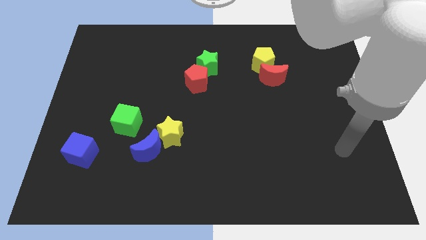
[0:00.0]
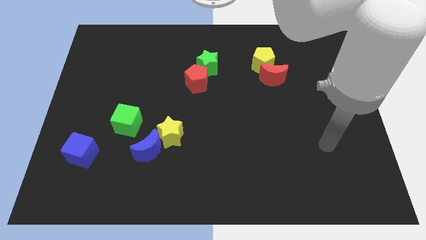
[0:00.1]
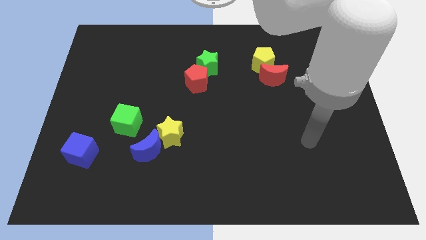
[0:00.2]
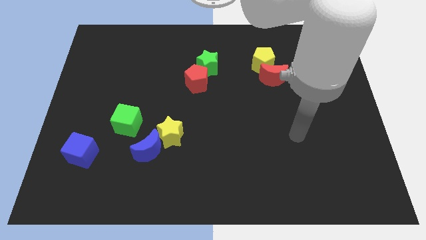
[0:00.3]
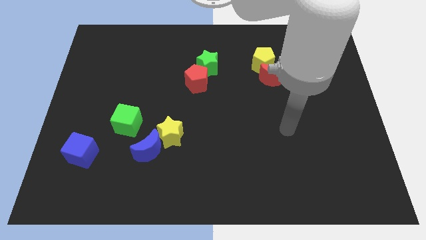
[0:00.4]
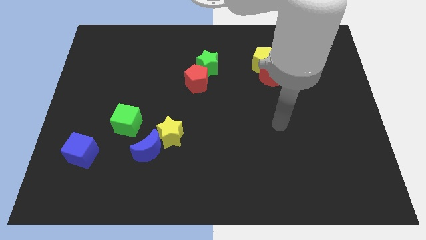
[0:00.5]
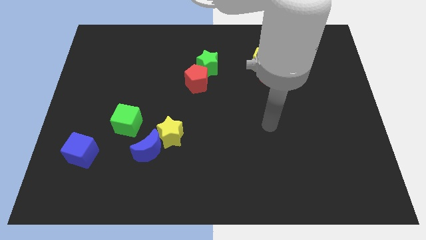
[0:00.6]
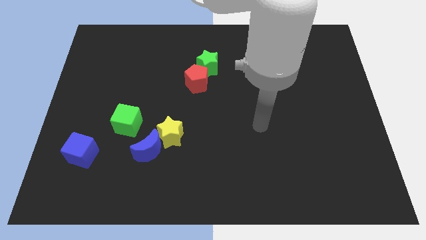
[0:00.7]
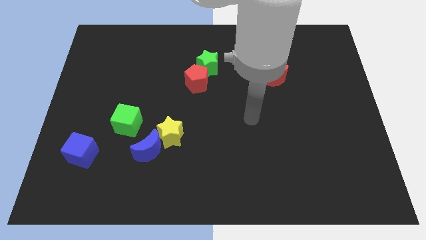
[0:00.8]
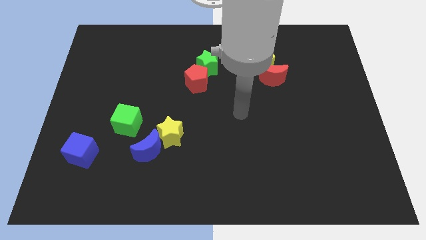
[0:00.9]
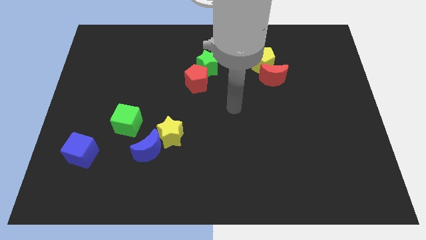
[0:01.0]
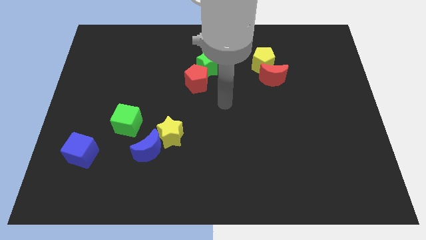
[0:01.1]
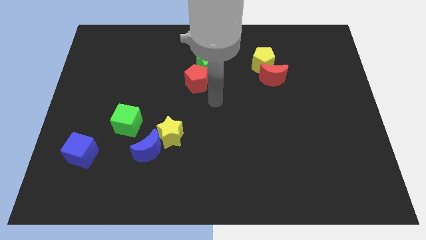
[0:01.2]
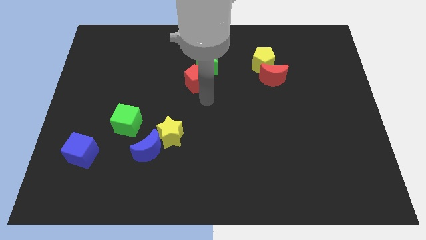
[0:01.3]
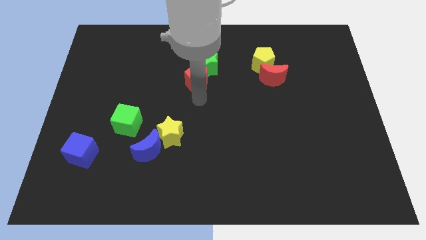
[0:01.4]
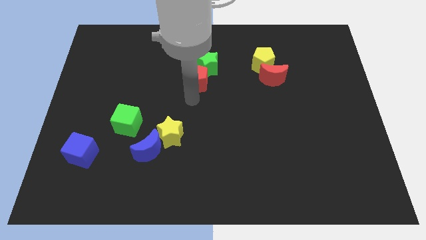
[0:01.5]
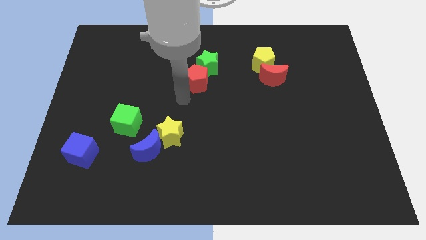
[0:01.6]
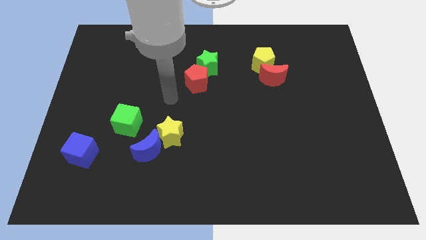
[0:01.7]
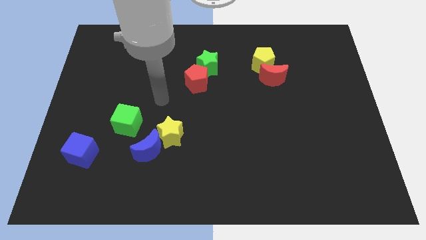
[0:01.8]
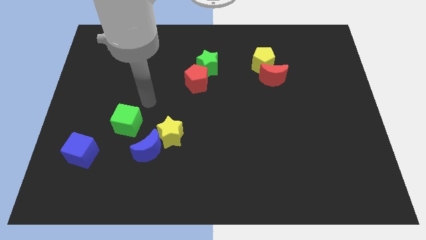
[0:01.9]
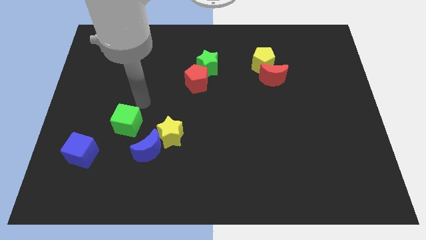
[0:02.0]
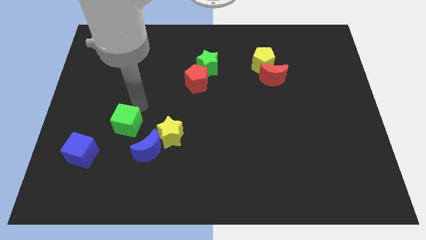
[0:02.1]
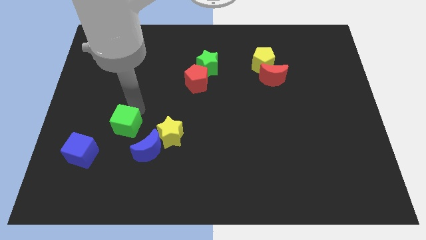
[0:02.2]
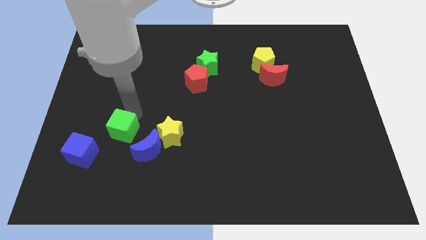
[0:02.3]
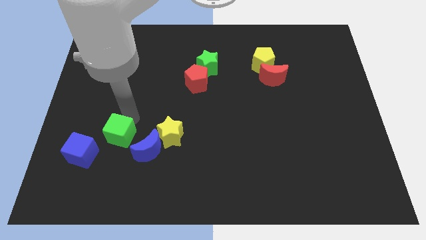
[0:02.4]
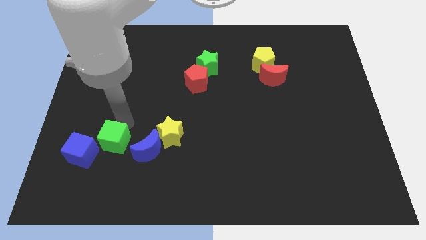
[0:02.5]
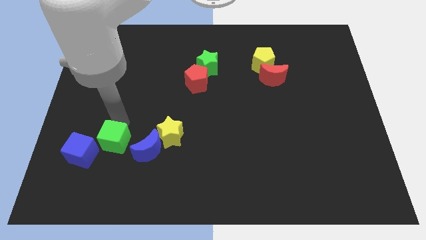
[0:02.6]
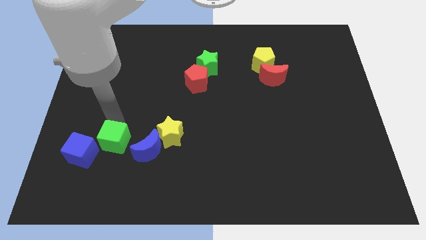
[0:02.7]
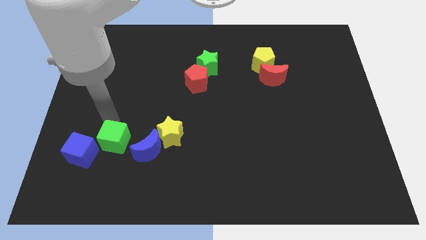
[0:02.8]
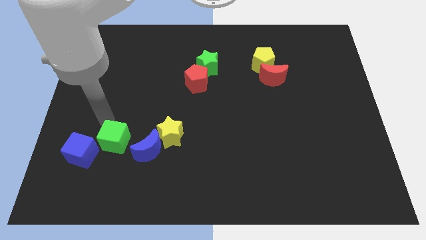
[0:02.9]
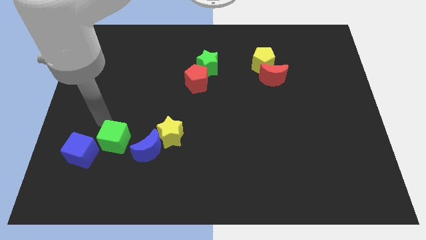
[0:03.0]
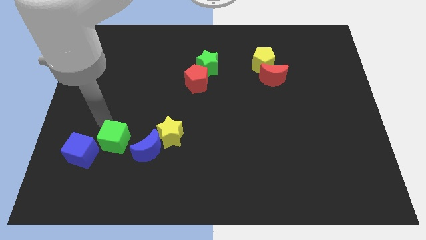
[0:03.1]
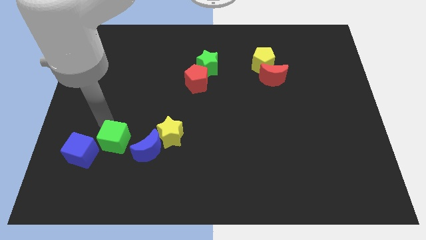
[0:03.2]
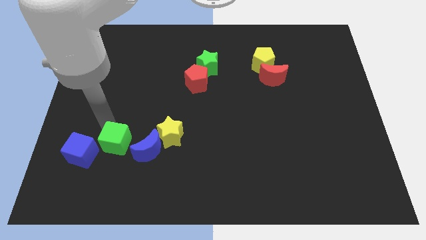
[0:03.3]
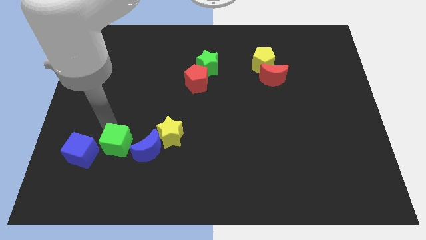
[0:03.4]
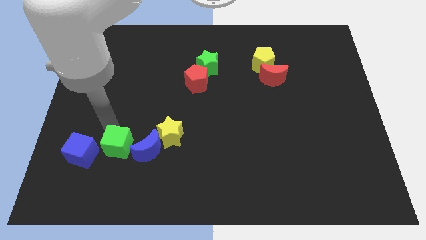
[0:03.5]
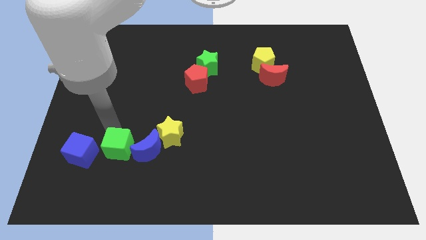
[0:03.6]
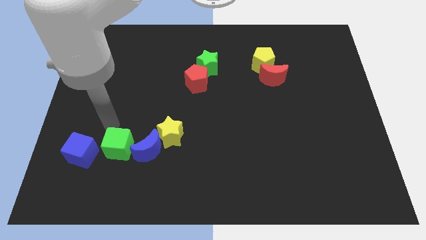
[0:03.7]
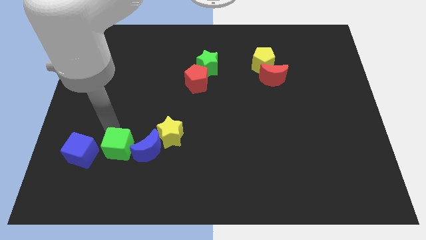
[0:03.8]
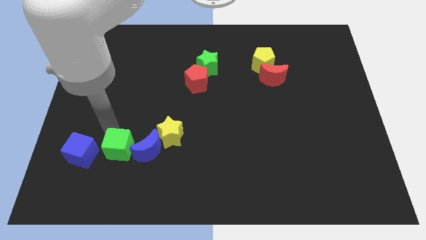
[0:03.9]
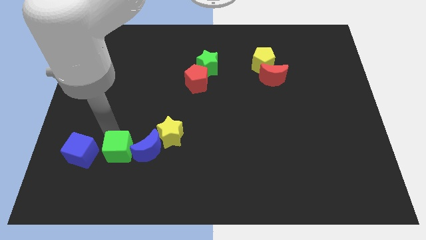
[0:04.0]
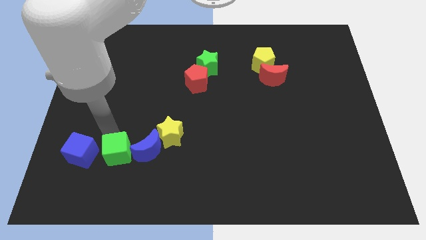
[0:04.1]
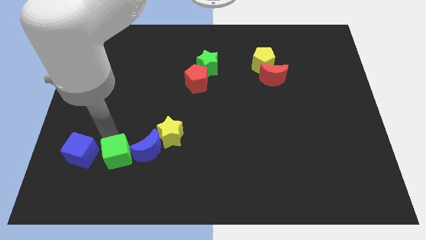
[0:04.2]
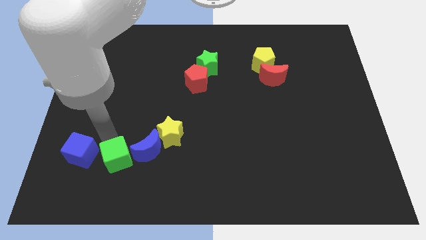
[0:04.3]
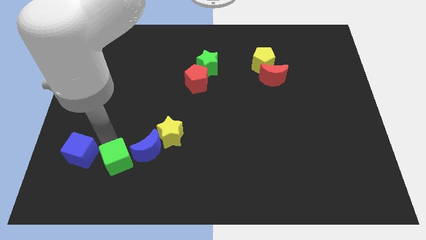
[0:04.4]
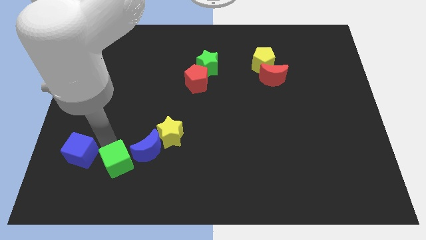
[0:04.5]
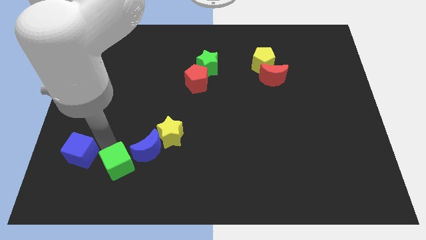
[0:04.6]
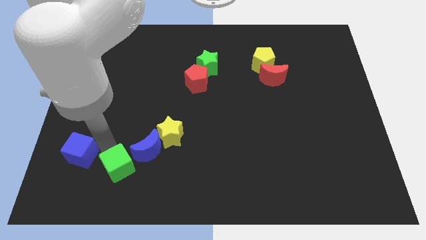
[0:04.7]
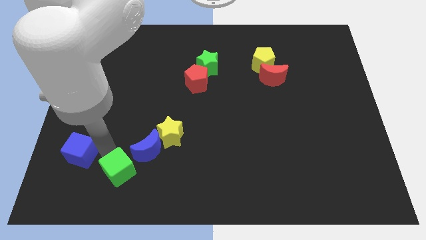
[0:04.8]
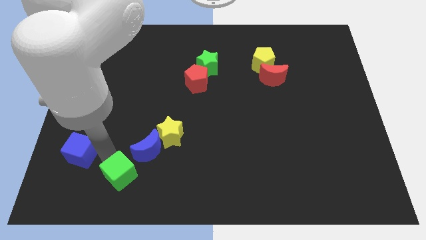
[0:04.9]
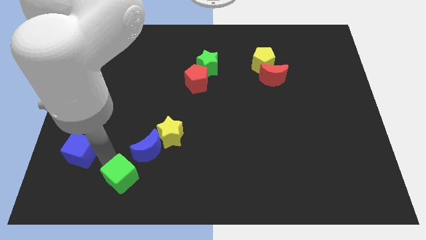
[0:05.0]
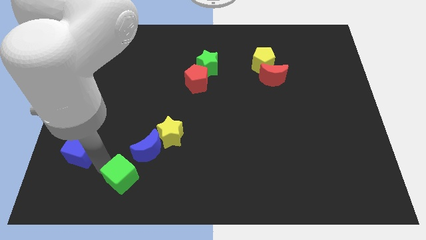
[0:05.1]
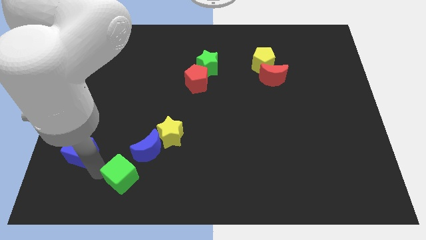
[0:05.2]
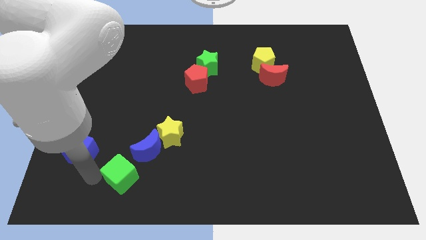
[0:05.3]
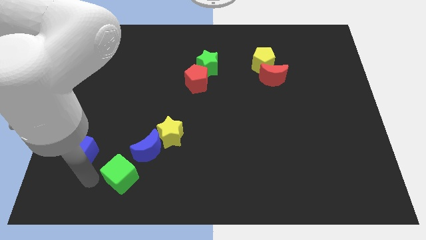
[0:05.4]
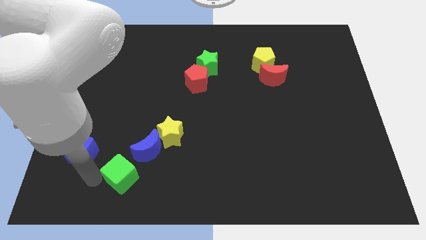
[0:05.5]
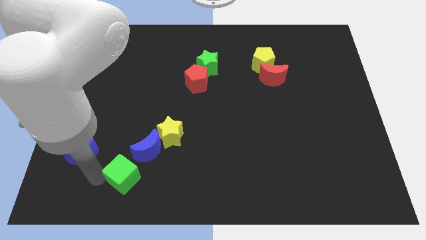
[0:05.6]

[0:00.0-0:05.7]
push the green cube somewhat diagonally downwards and right

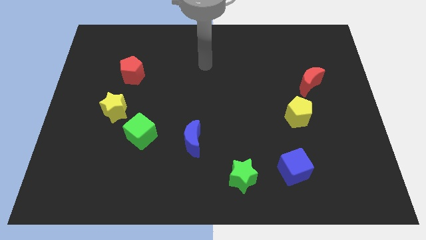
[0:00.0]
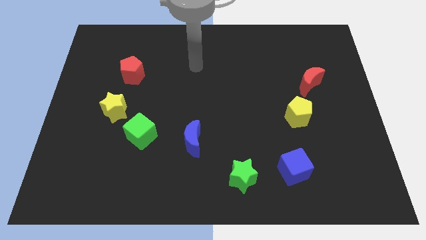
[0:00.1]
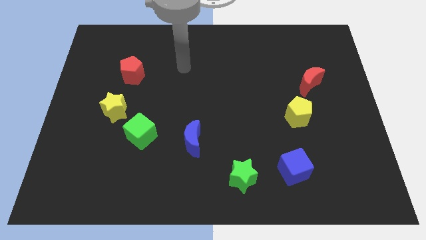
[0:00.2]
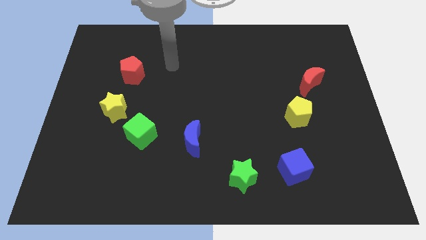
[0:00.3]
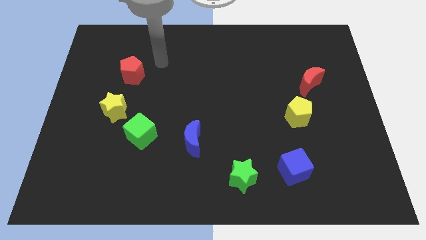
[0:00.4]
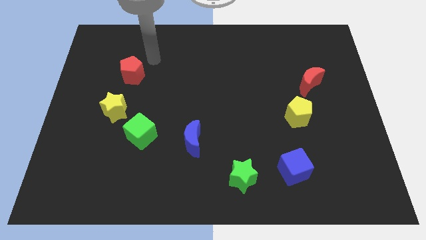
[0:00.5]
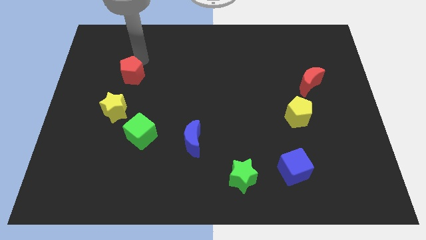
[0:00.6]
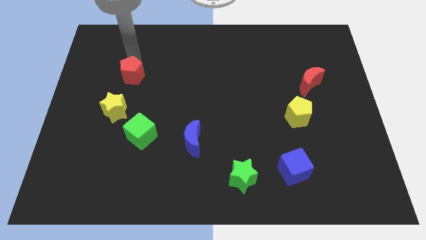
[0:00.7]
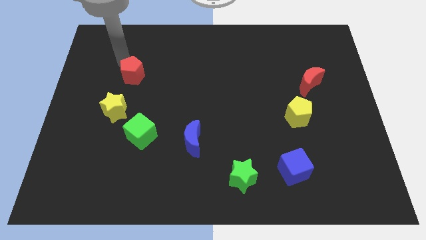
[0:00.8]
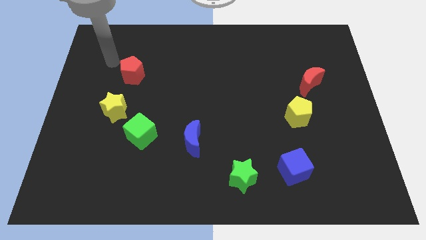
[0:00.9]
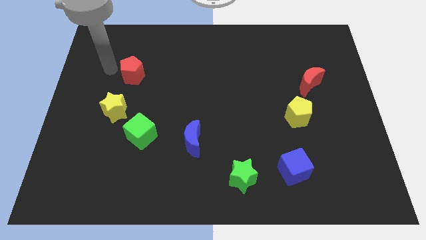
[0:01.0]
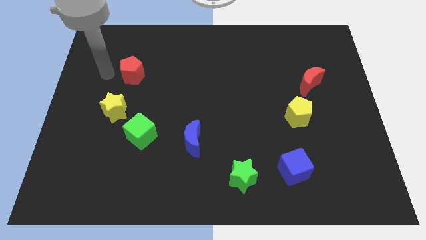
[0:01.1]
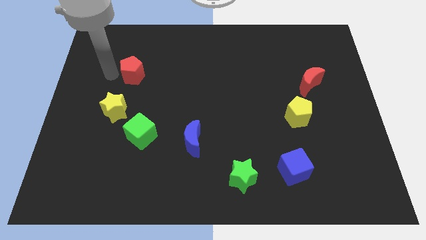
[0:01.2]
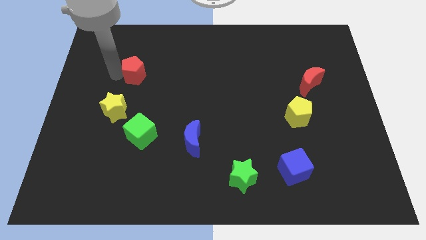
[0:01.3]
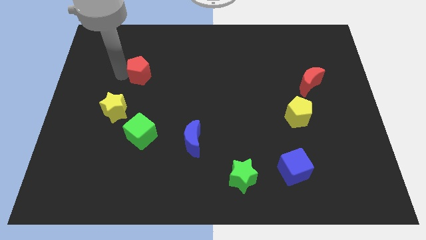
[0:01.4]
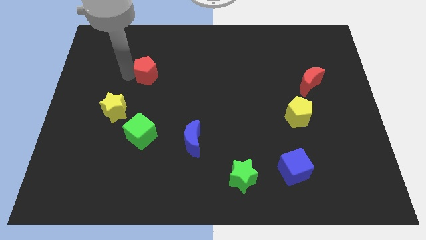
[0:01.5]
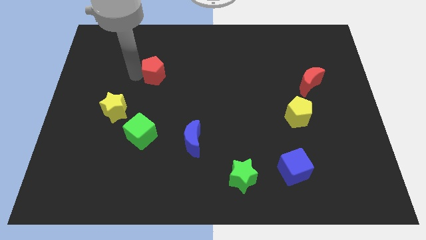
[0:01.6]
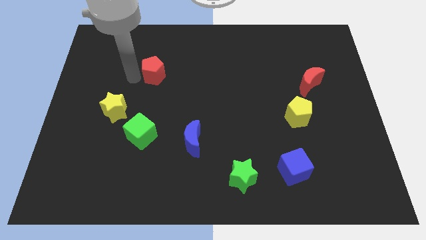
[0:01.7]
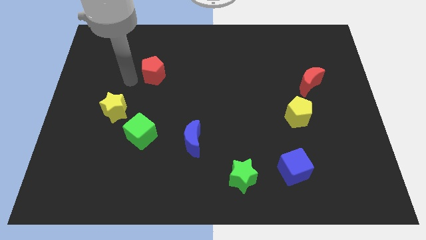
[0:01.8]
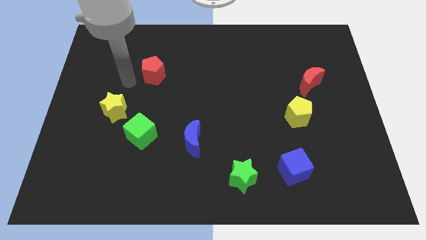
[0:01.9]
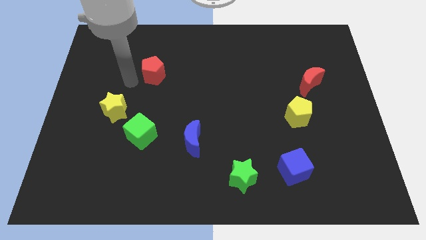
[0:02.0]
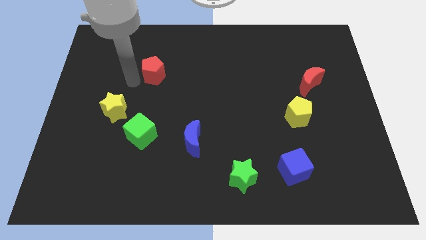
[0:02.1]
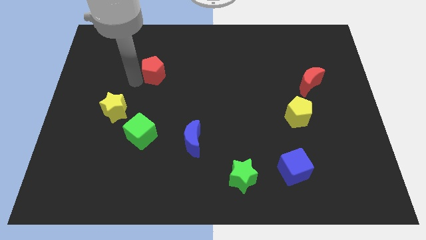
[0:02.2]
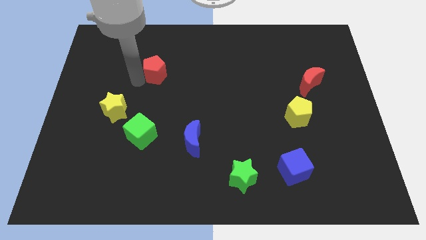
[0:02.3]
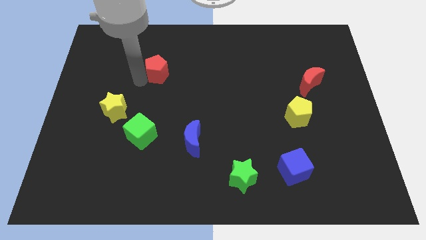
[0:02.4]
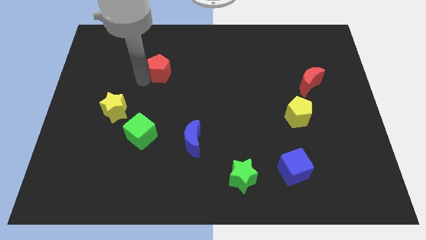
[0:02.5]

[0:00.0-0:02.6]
move the red pentagon a bit right
